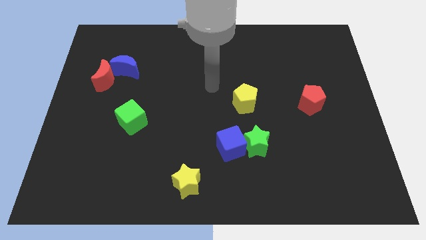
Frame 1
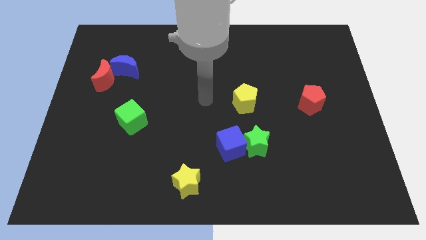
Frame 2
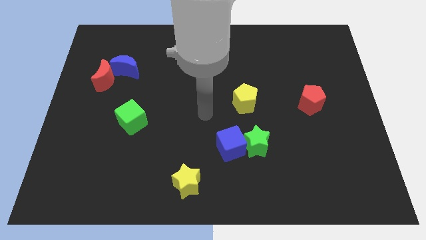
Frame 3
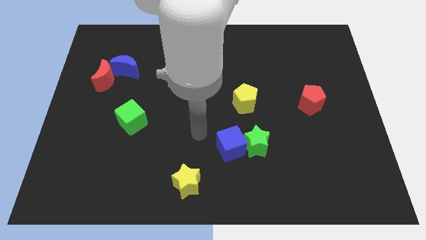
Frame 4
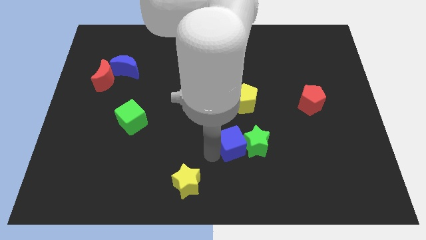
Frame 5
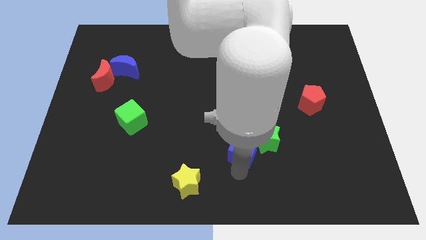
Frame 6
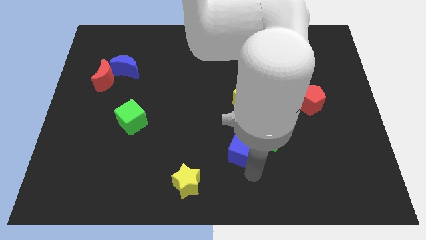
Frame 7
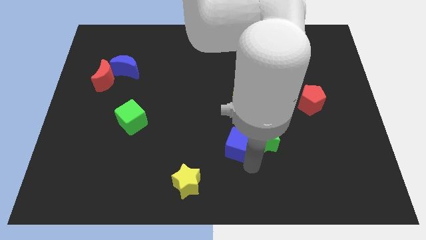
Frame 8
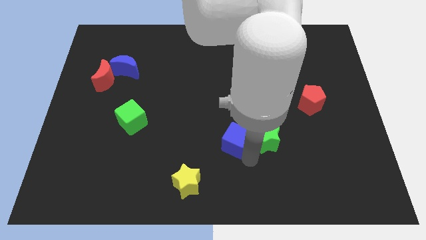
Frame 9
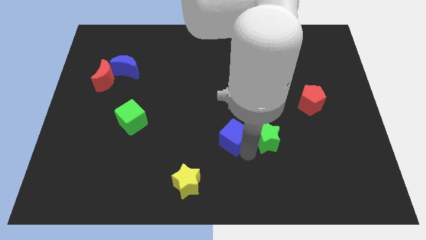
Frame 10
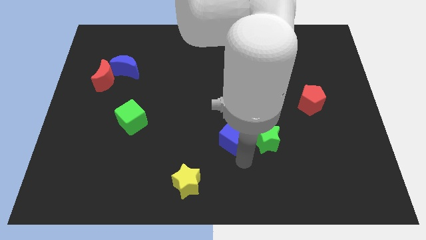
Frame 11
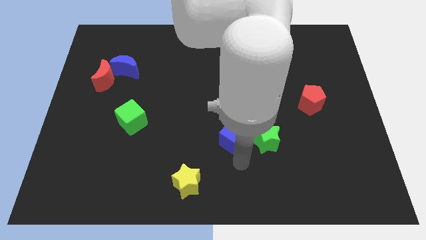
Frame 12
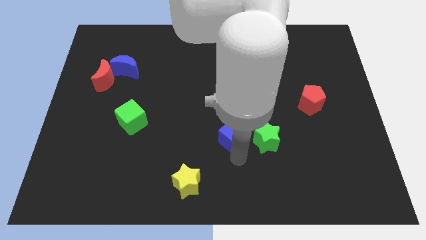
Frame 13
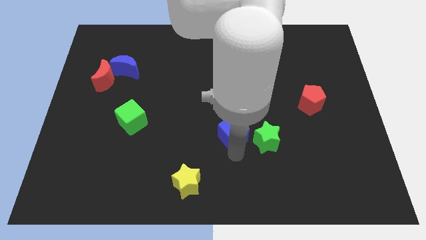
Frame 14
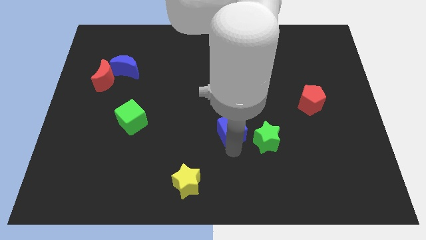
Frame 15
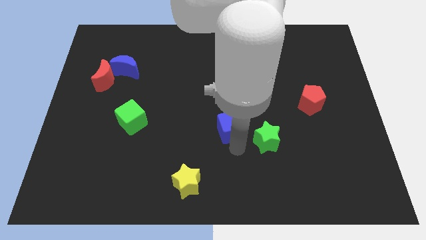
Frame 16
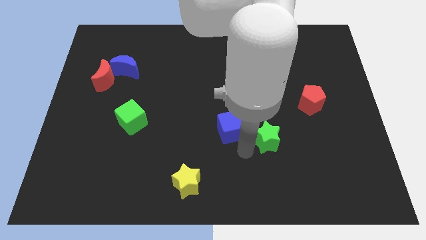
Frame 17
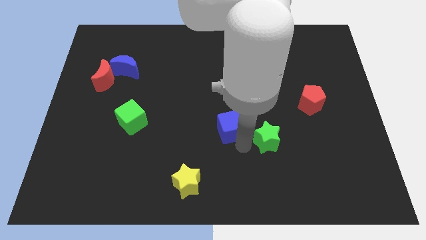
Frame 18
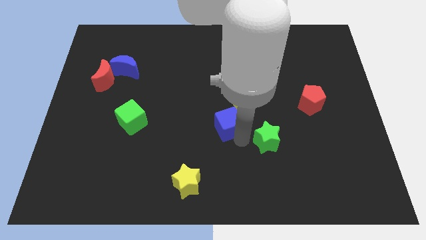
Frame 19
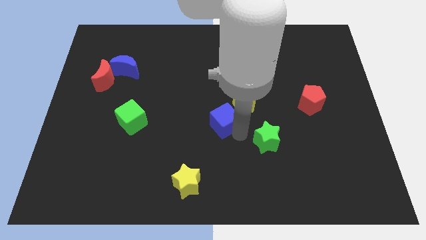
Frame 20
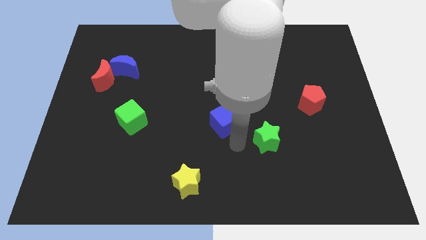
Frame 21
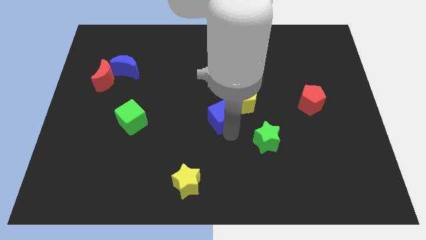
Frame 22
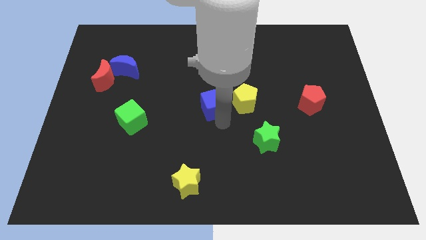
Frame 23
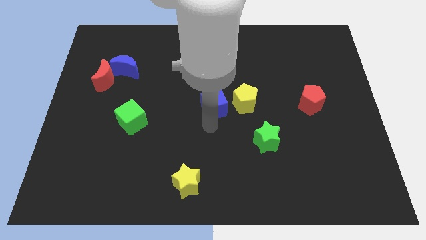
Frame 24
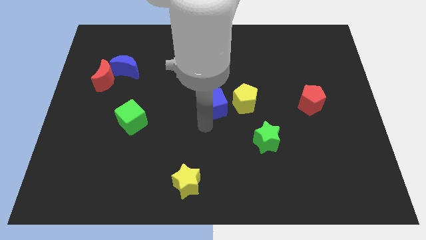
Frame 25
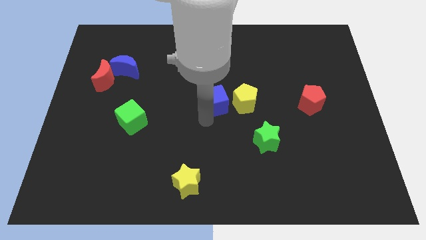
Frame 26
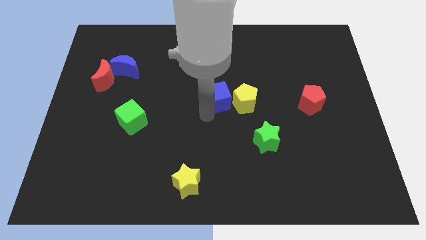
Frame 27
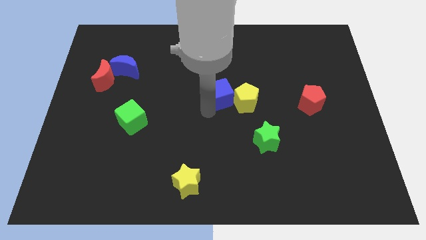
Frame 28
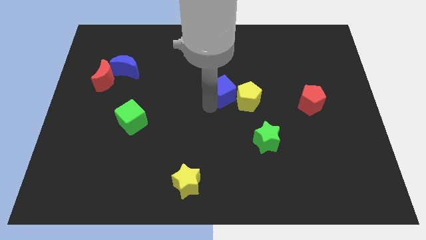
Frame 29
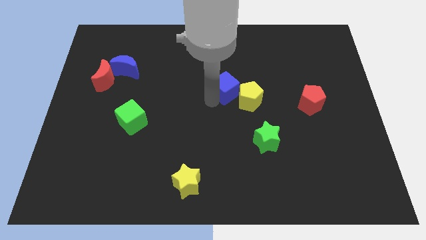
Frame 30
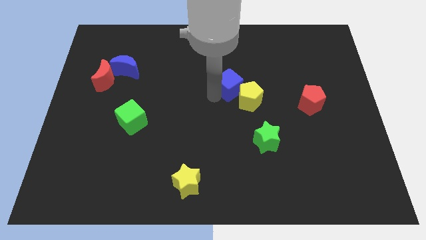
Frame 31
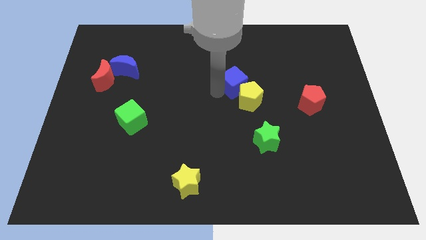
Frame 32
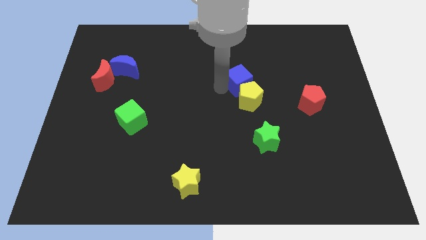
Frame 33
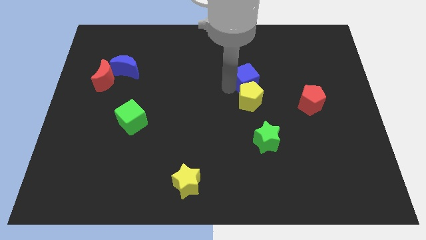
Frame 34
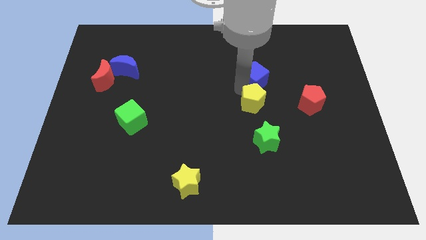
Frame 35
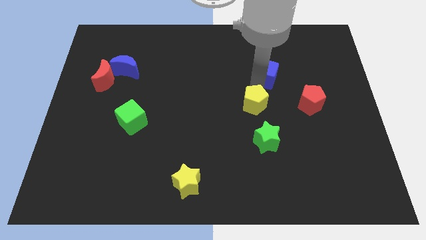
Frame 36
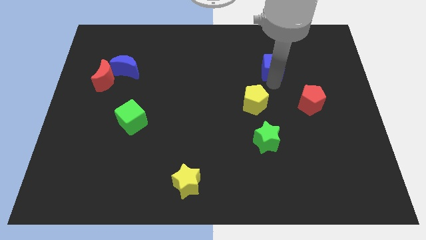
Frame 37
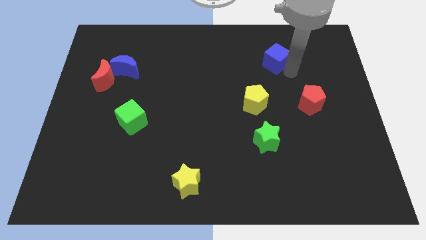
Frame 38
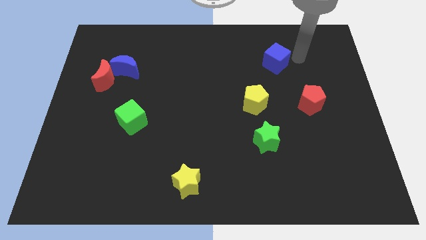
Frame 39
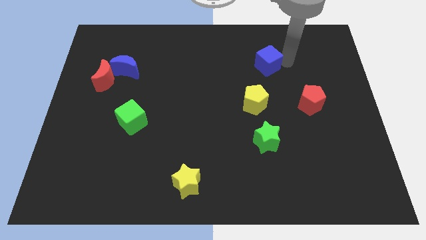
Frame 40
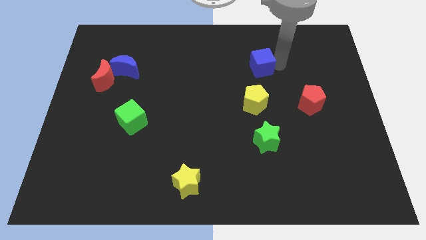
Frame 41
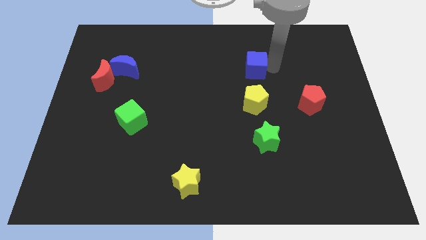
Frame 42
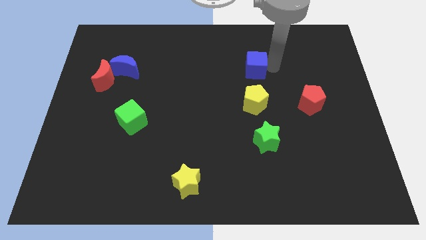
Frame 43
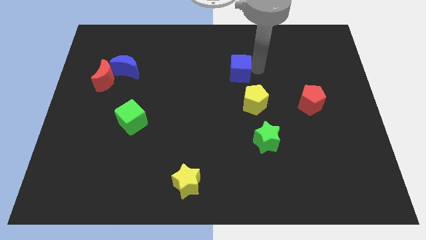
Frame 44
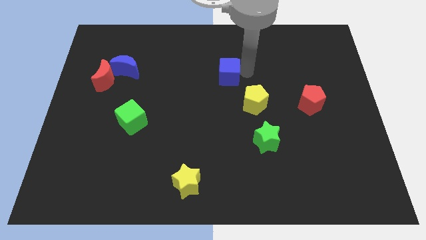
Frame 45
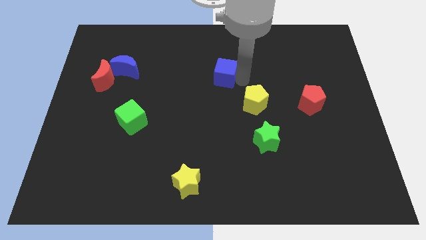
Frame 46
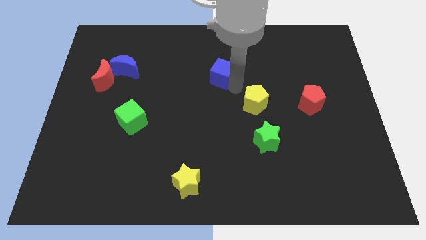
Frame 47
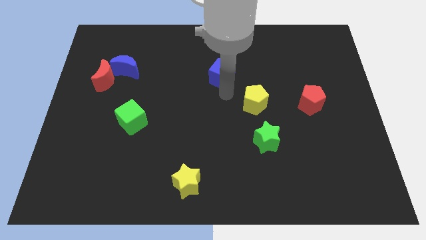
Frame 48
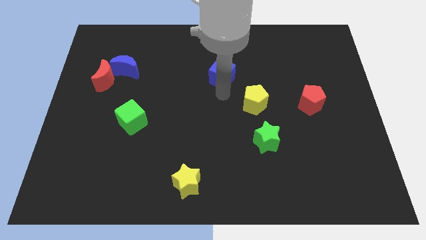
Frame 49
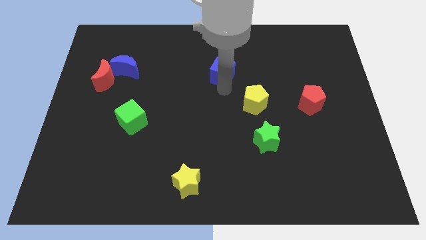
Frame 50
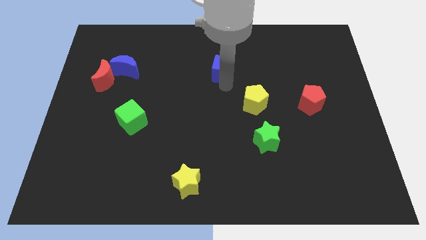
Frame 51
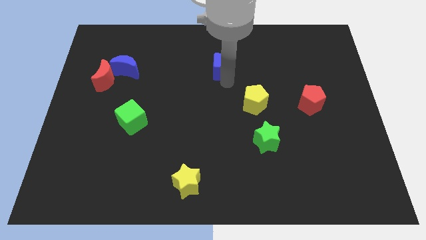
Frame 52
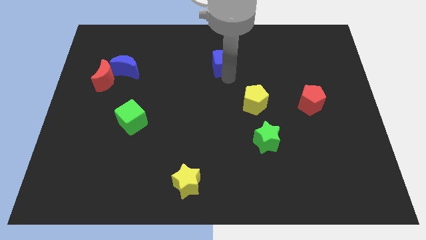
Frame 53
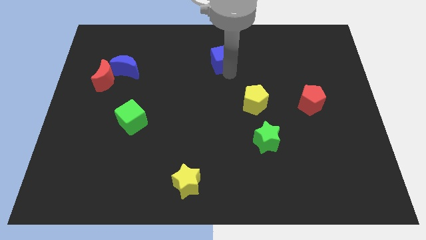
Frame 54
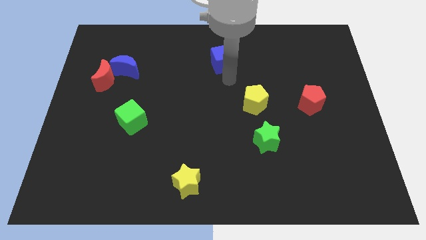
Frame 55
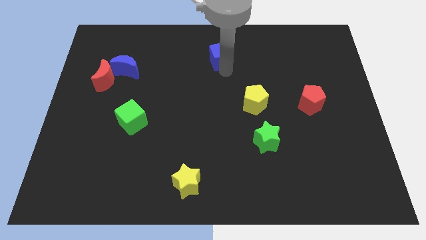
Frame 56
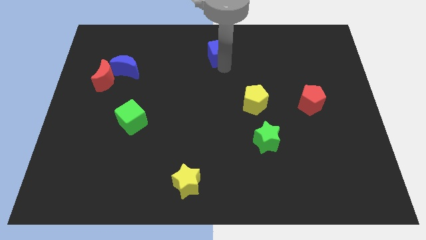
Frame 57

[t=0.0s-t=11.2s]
slide the blue cube to the towards your base
